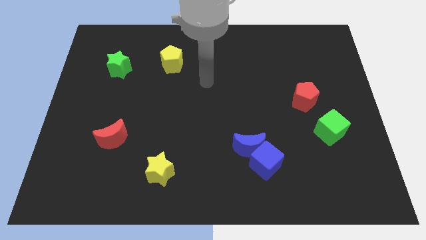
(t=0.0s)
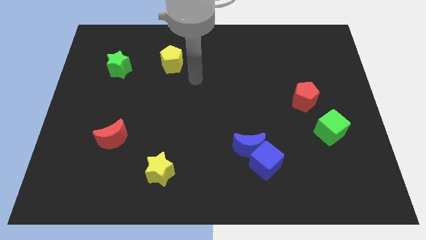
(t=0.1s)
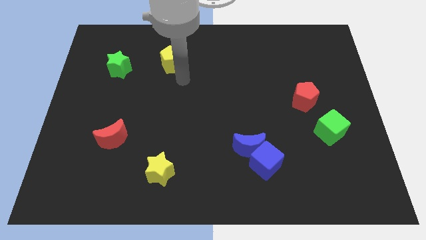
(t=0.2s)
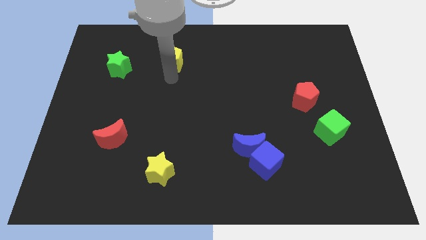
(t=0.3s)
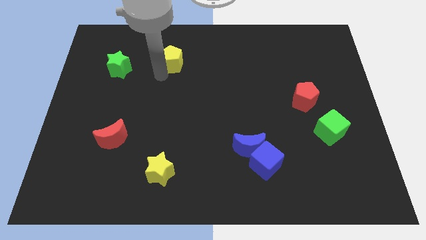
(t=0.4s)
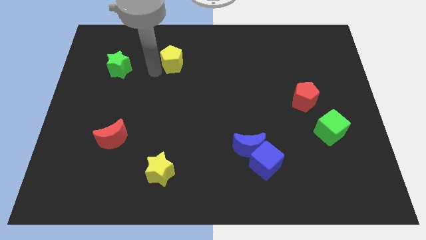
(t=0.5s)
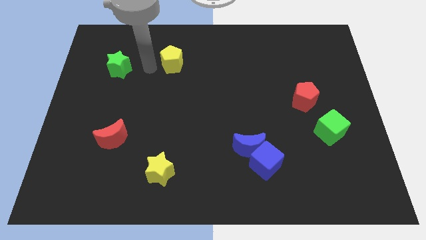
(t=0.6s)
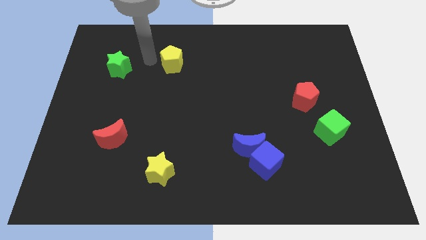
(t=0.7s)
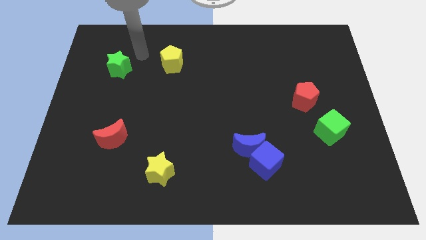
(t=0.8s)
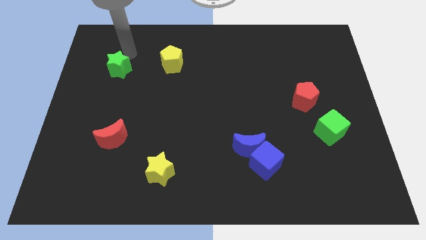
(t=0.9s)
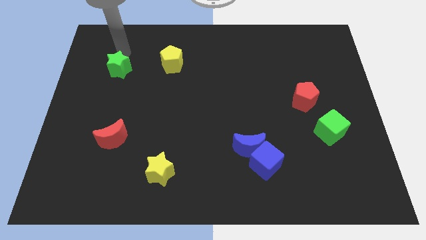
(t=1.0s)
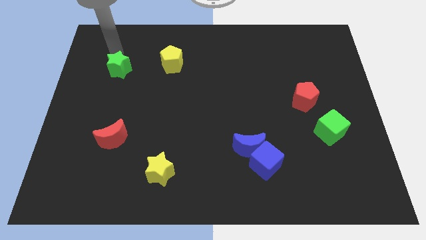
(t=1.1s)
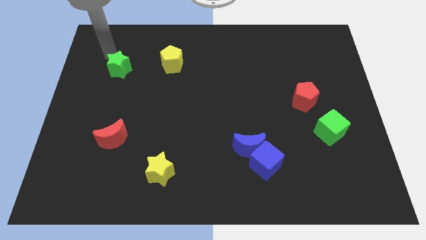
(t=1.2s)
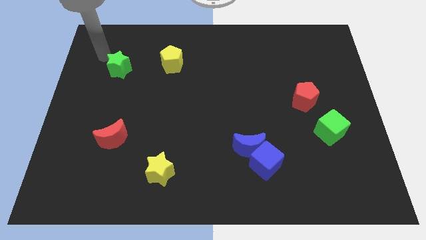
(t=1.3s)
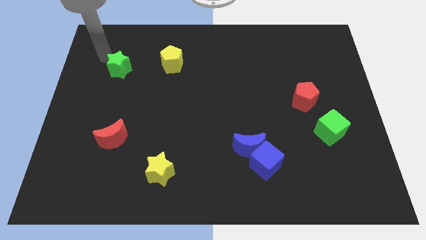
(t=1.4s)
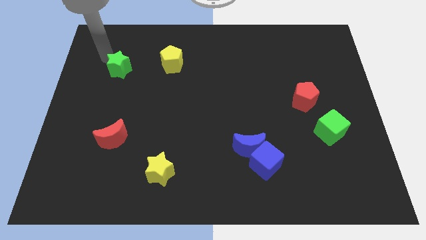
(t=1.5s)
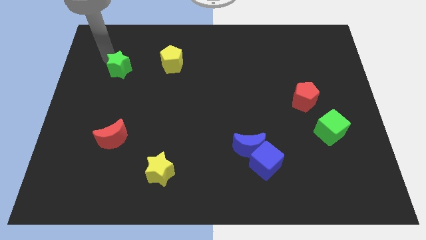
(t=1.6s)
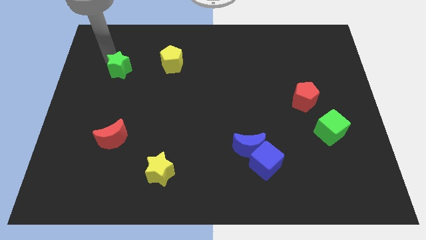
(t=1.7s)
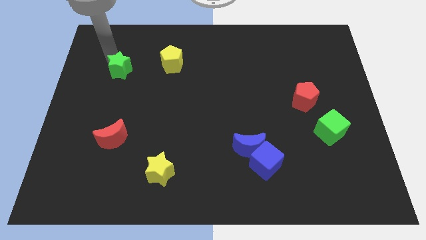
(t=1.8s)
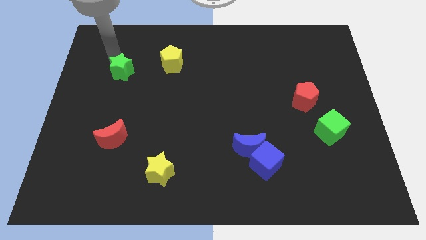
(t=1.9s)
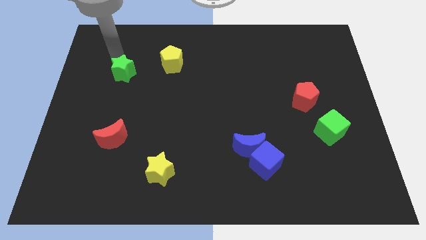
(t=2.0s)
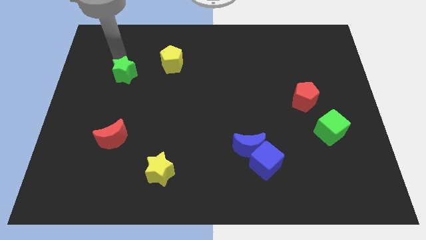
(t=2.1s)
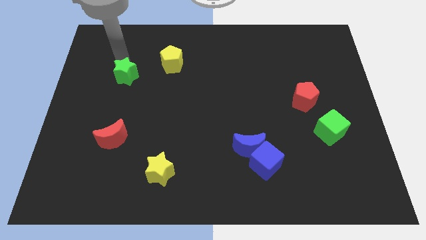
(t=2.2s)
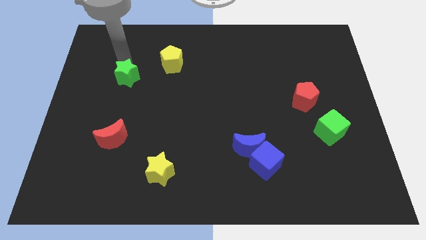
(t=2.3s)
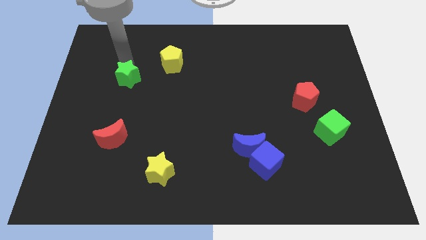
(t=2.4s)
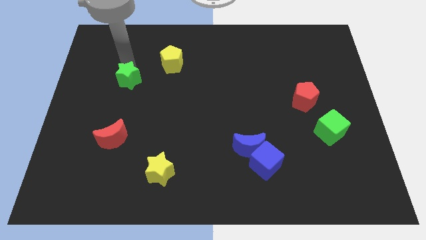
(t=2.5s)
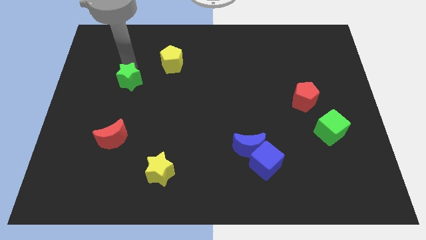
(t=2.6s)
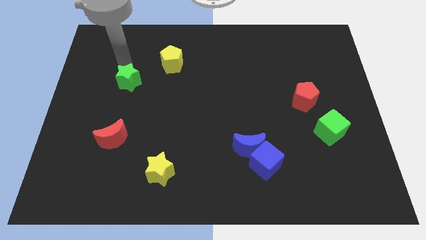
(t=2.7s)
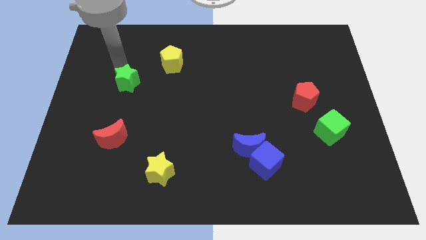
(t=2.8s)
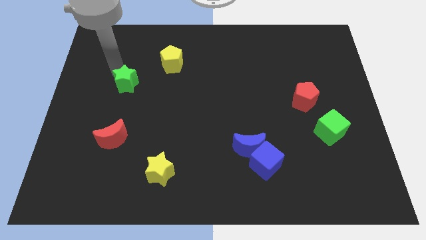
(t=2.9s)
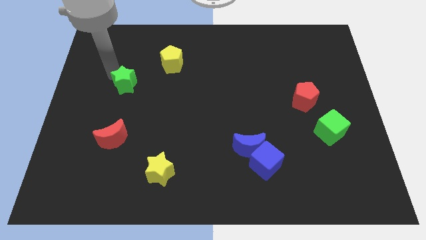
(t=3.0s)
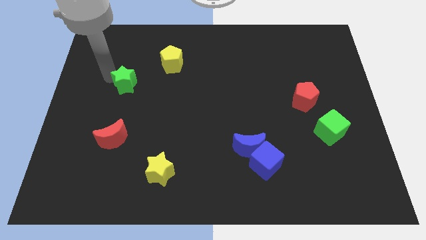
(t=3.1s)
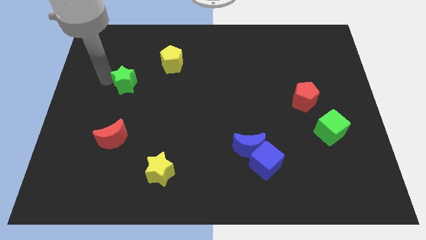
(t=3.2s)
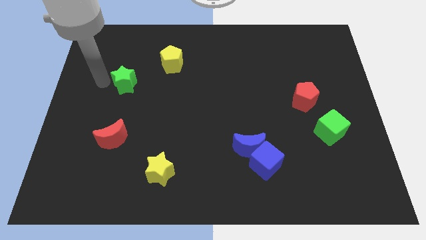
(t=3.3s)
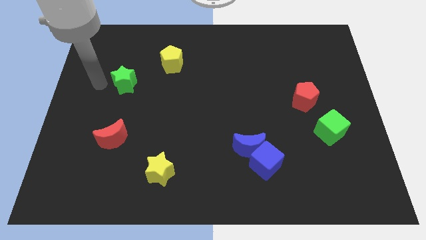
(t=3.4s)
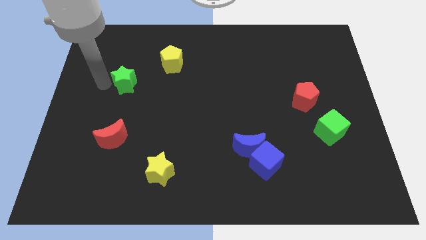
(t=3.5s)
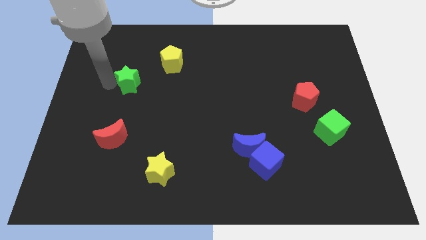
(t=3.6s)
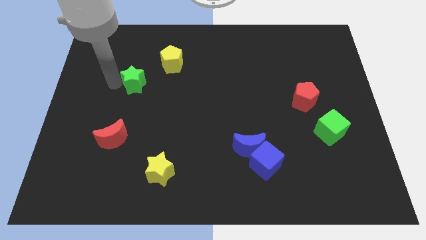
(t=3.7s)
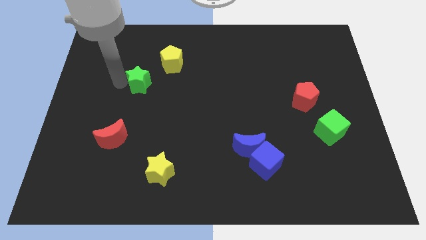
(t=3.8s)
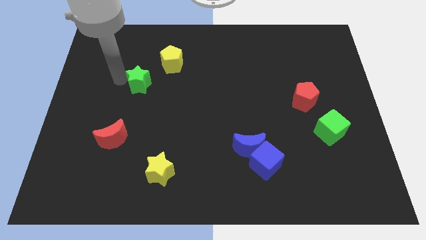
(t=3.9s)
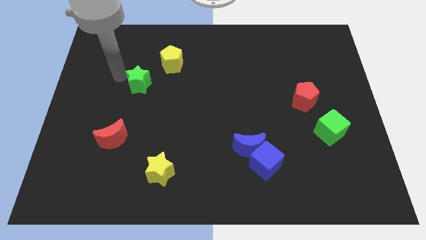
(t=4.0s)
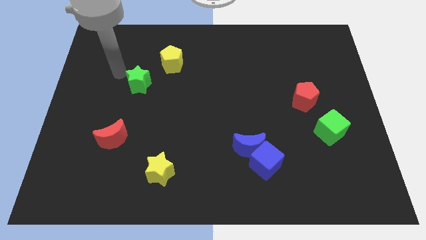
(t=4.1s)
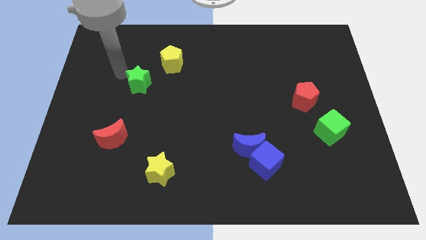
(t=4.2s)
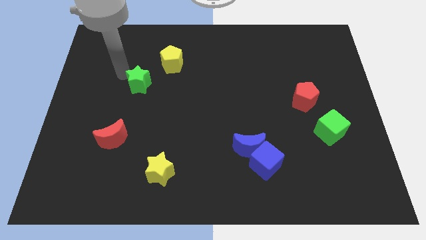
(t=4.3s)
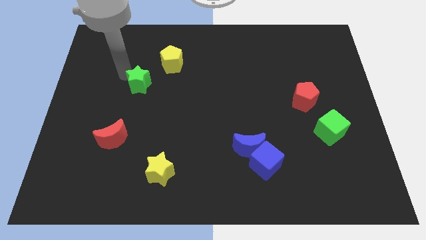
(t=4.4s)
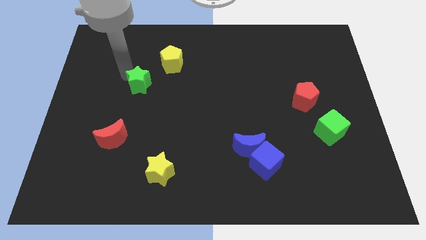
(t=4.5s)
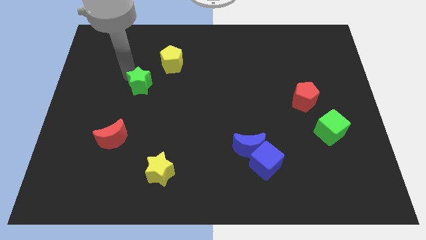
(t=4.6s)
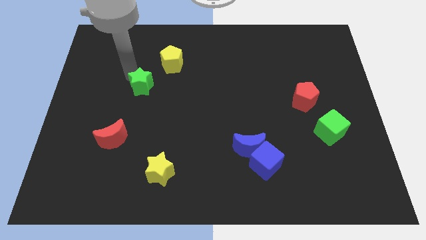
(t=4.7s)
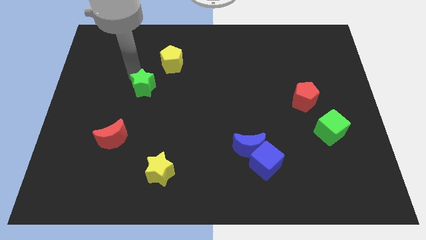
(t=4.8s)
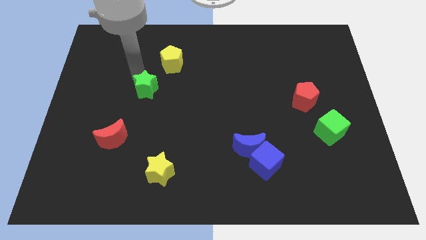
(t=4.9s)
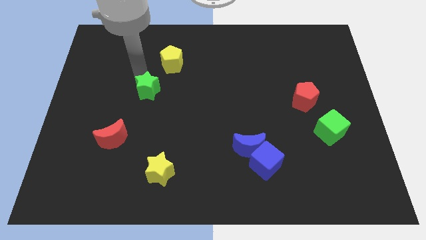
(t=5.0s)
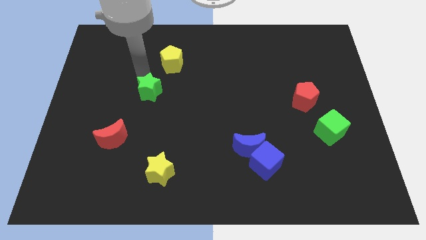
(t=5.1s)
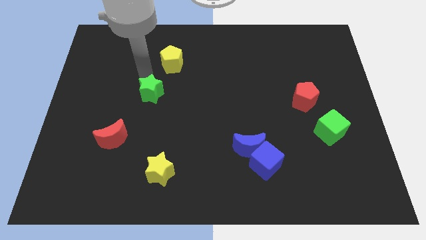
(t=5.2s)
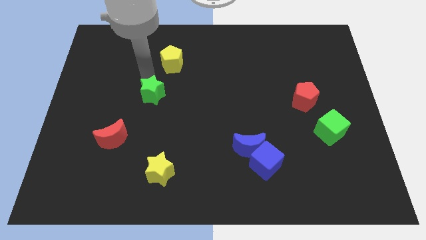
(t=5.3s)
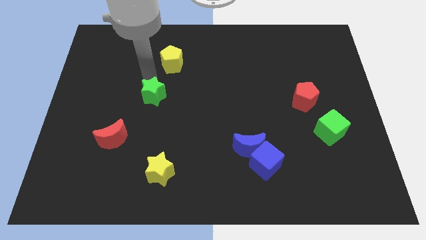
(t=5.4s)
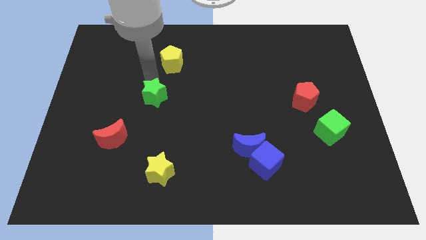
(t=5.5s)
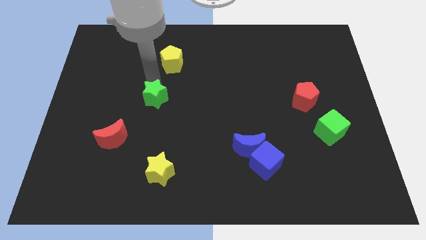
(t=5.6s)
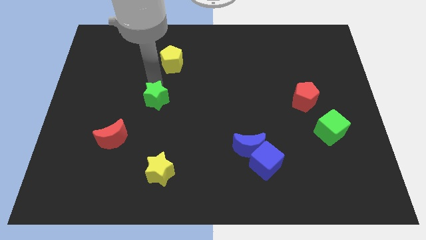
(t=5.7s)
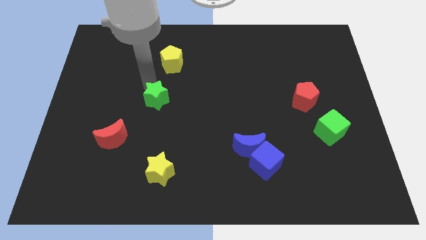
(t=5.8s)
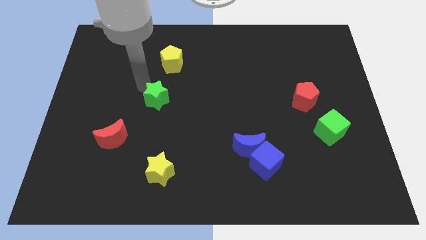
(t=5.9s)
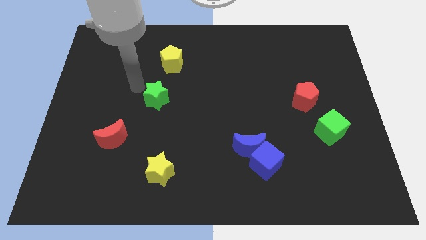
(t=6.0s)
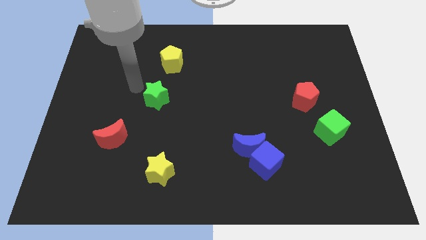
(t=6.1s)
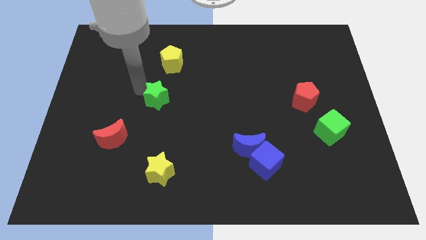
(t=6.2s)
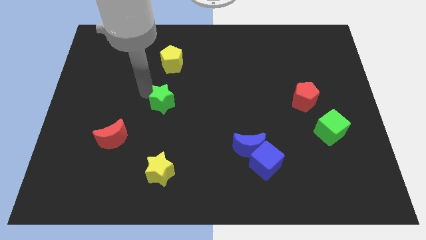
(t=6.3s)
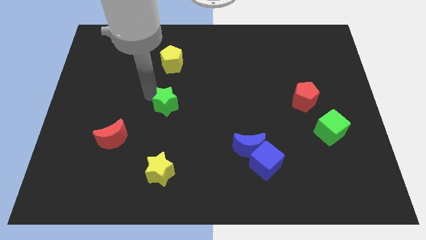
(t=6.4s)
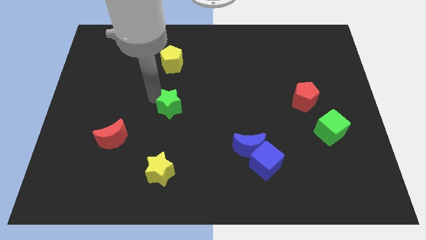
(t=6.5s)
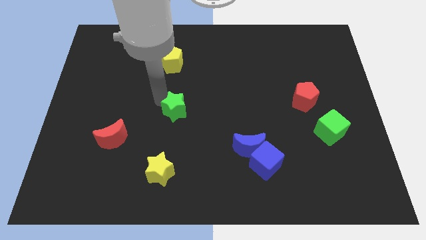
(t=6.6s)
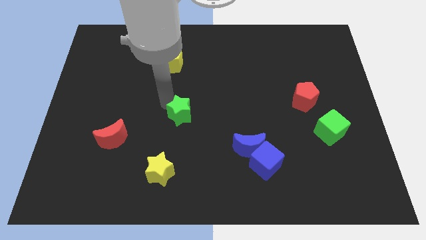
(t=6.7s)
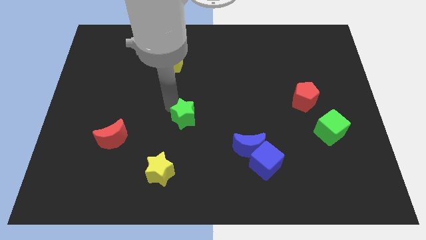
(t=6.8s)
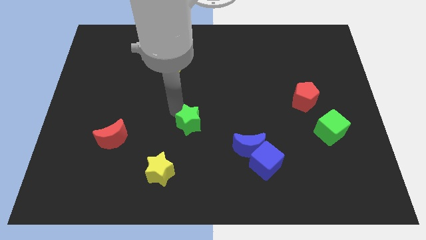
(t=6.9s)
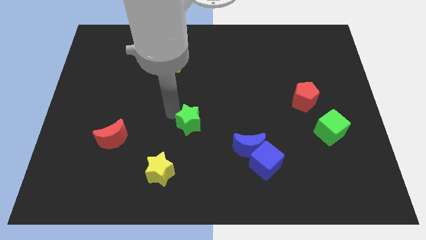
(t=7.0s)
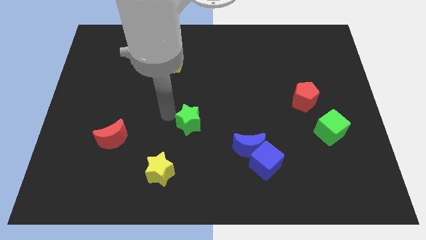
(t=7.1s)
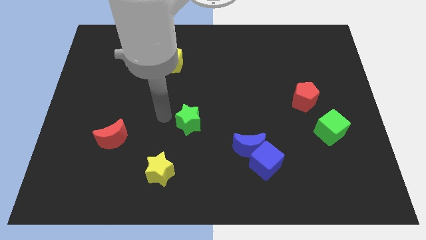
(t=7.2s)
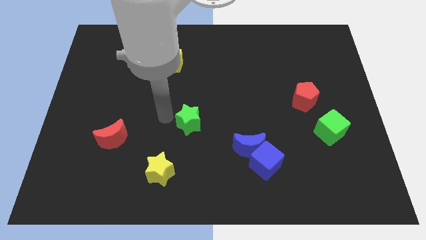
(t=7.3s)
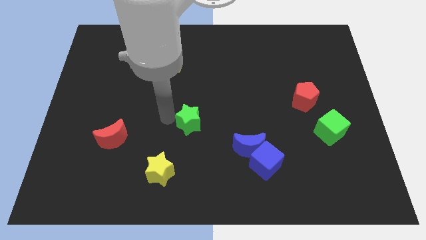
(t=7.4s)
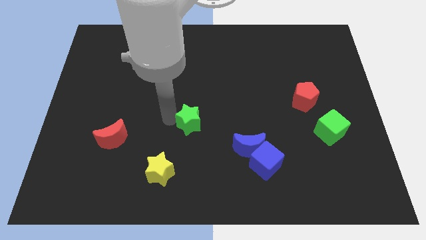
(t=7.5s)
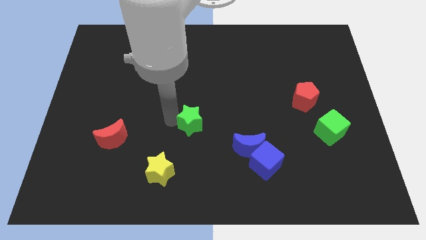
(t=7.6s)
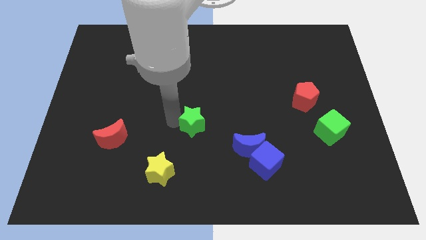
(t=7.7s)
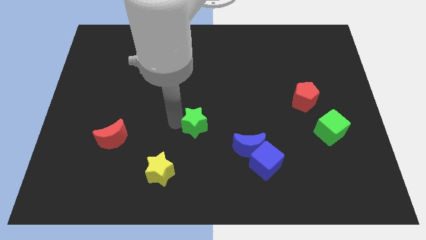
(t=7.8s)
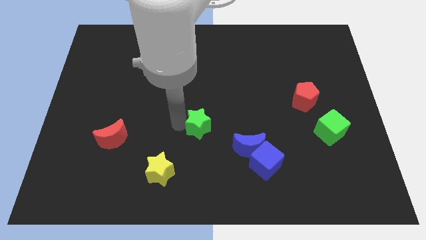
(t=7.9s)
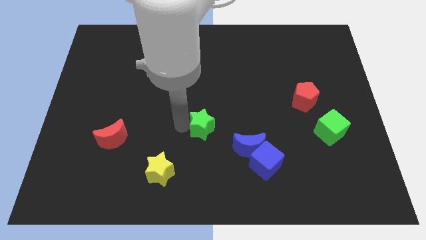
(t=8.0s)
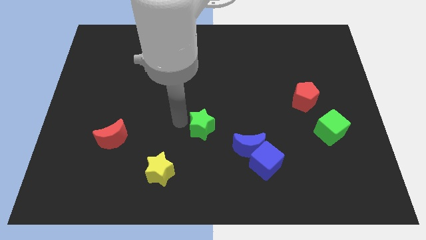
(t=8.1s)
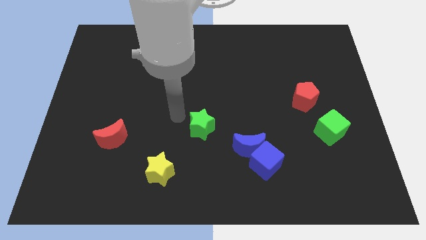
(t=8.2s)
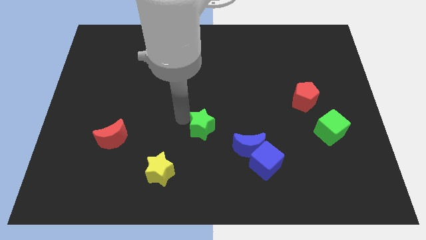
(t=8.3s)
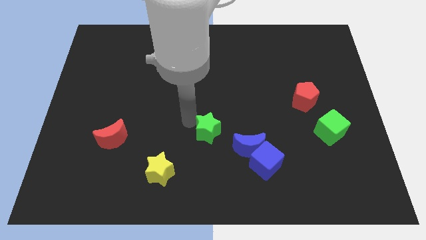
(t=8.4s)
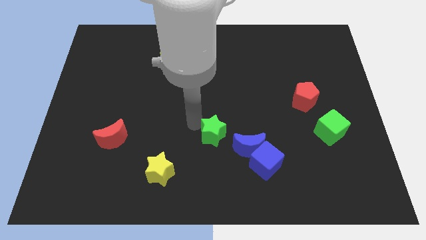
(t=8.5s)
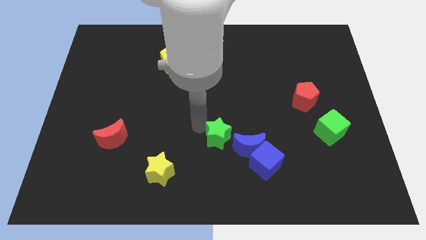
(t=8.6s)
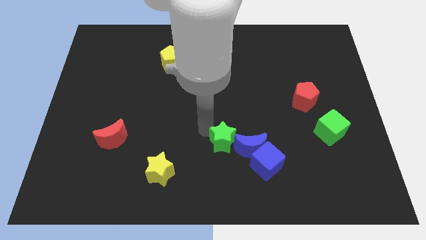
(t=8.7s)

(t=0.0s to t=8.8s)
push the green star towards the blue moon
